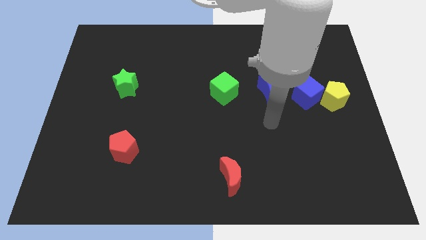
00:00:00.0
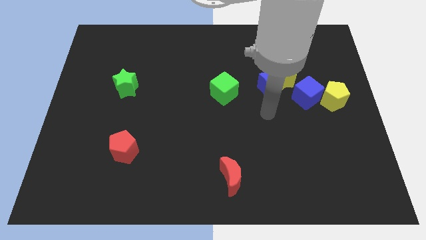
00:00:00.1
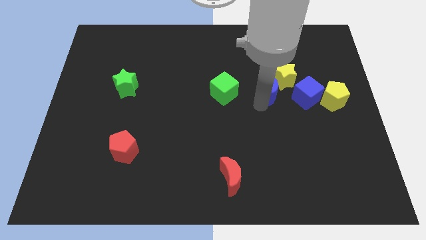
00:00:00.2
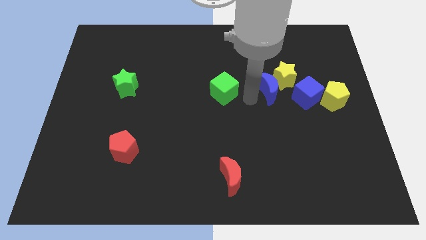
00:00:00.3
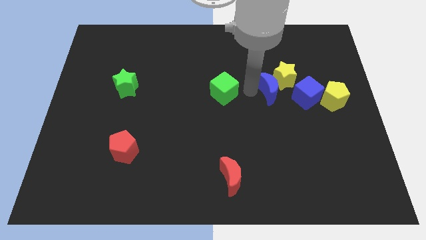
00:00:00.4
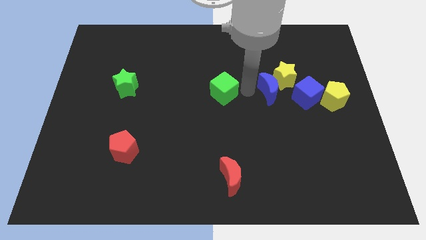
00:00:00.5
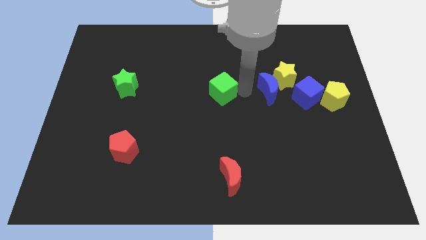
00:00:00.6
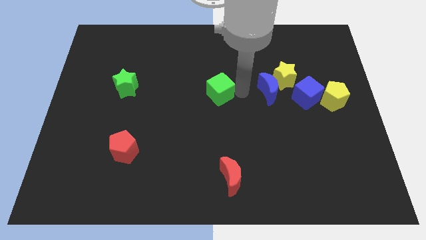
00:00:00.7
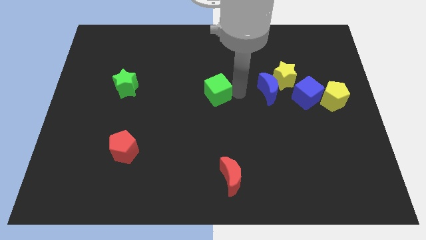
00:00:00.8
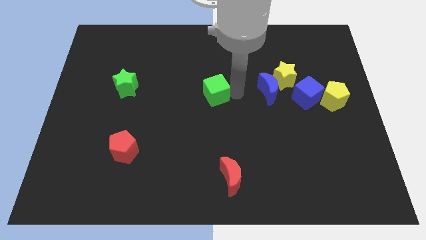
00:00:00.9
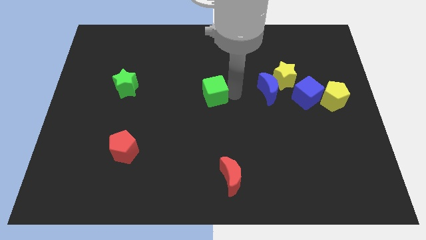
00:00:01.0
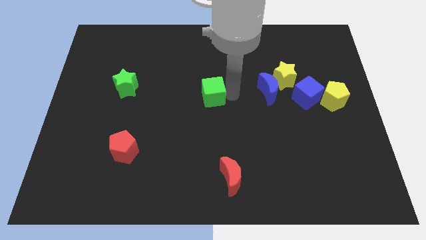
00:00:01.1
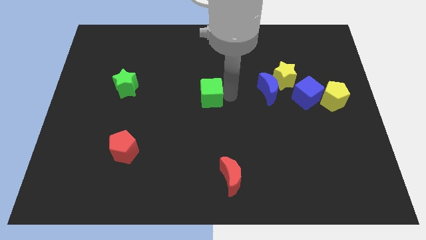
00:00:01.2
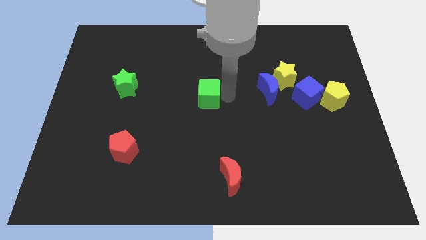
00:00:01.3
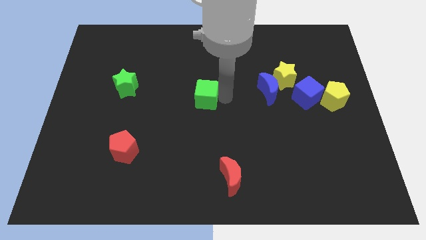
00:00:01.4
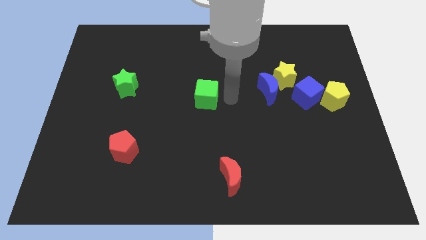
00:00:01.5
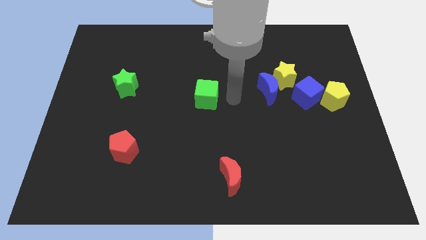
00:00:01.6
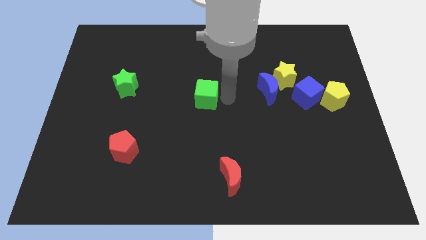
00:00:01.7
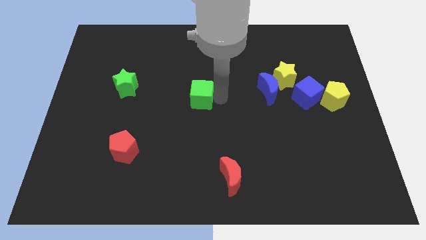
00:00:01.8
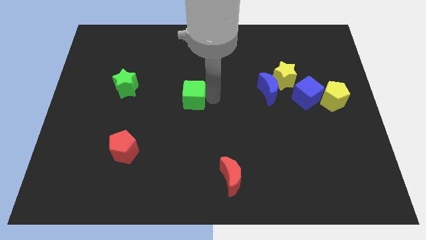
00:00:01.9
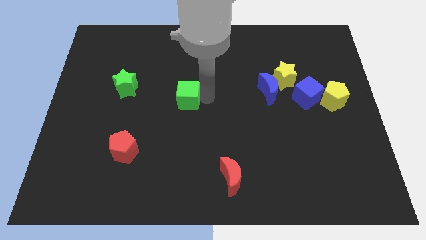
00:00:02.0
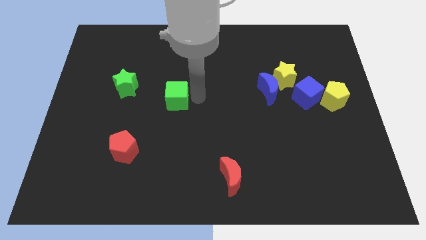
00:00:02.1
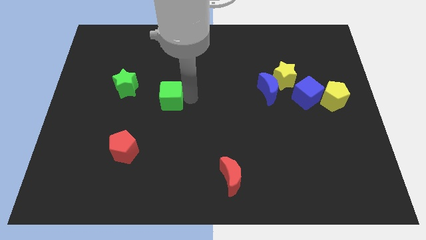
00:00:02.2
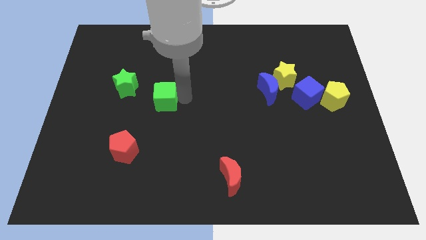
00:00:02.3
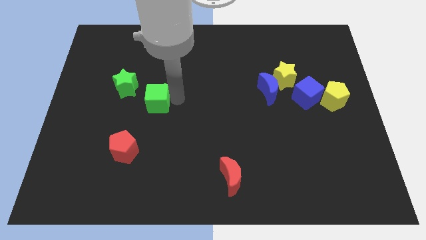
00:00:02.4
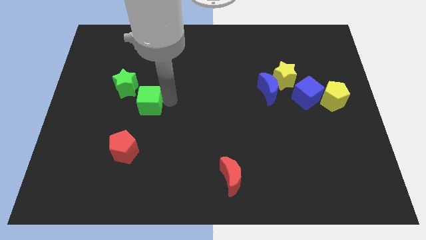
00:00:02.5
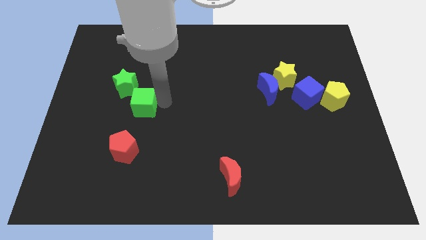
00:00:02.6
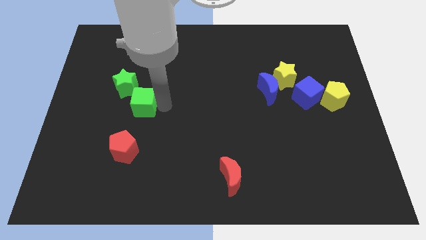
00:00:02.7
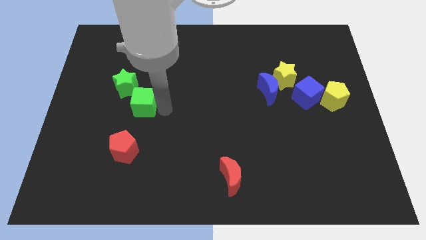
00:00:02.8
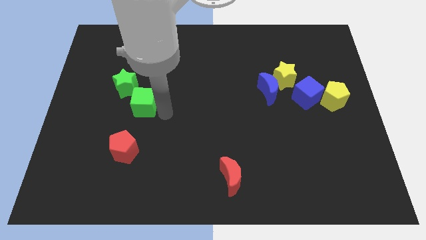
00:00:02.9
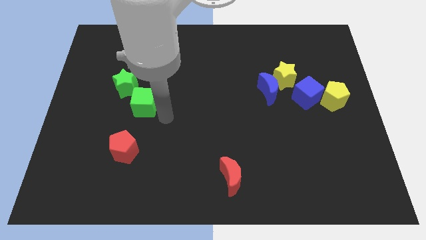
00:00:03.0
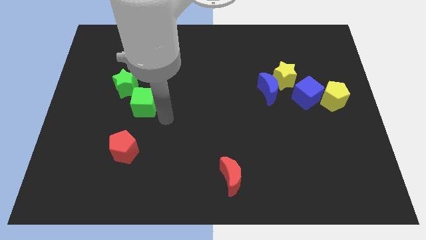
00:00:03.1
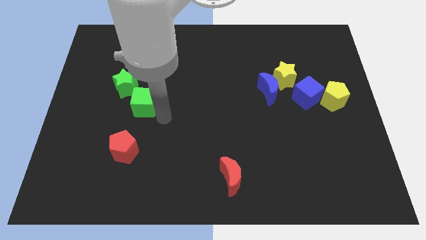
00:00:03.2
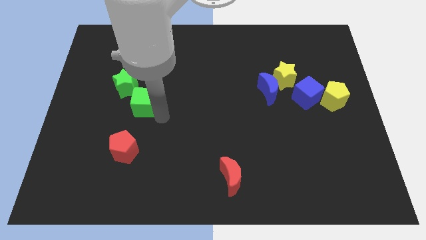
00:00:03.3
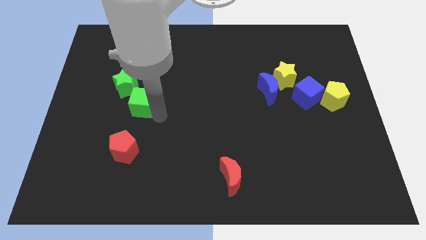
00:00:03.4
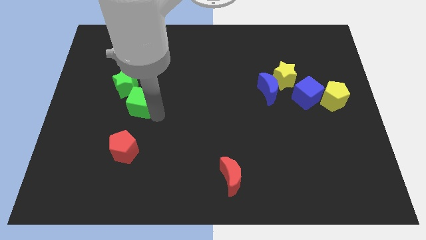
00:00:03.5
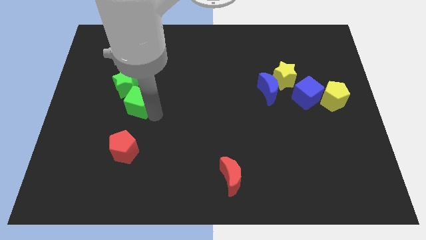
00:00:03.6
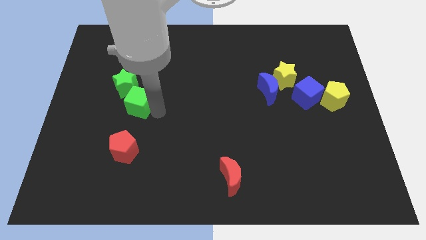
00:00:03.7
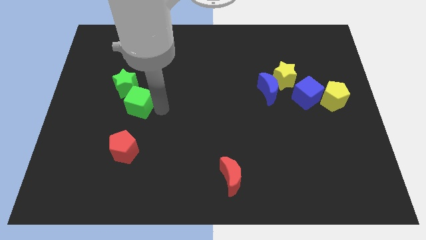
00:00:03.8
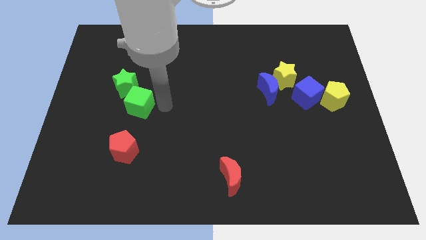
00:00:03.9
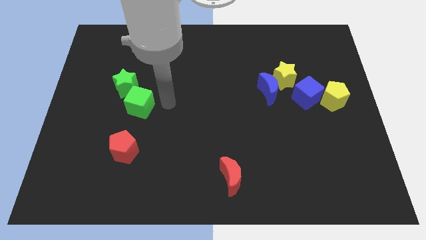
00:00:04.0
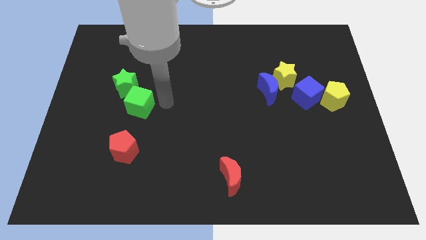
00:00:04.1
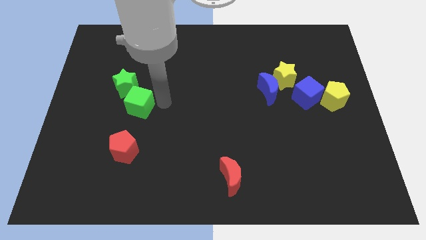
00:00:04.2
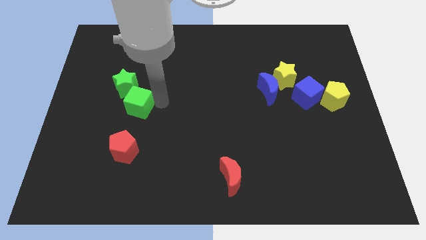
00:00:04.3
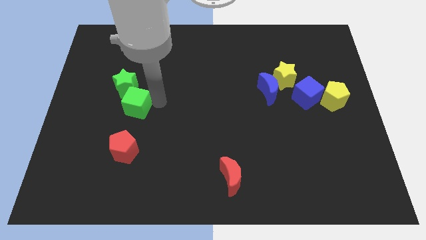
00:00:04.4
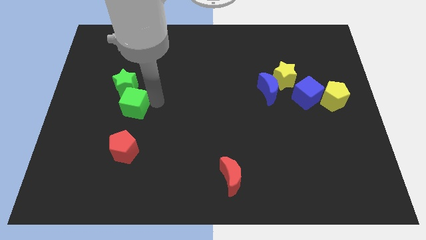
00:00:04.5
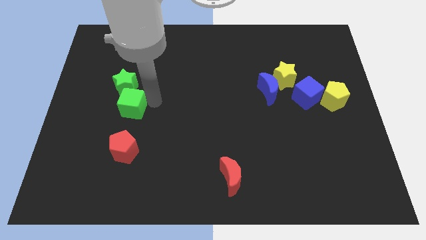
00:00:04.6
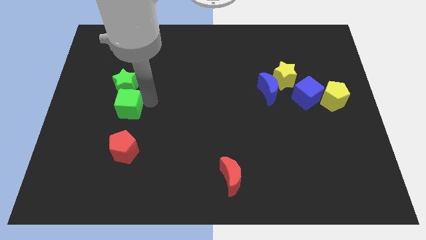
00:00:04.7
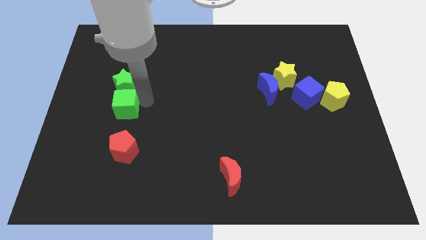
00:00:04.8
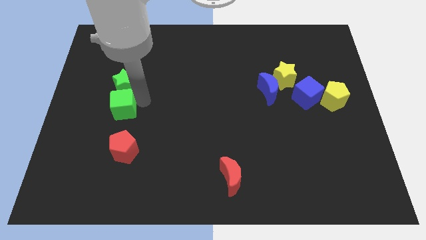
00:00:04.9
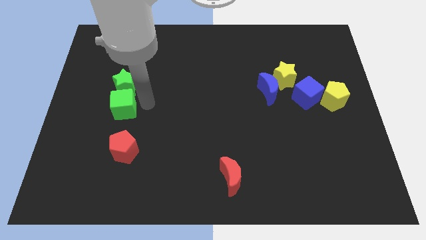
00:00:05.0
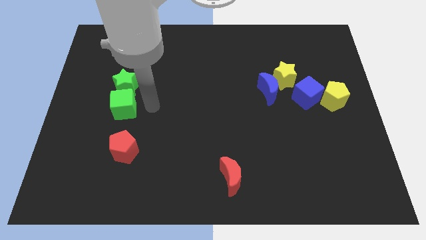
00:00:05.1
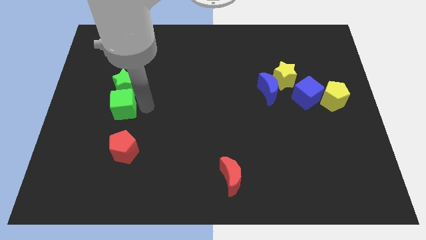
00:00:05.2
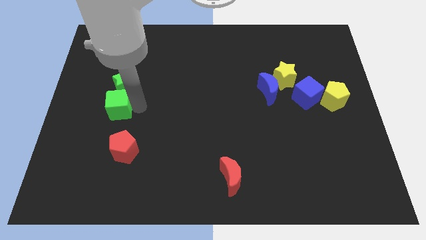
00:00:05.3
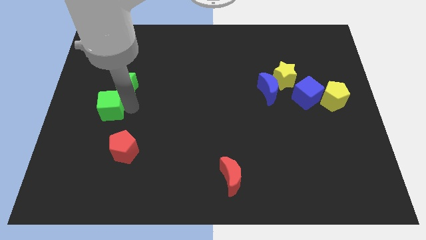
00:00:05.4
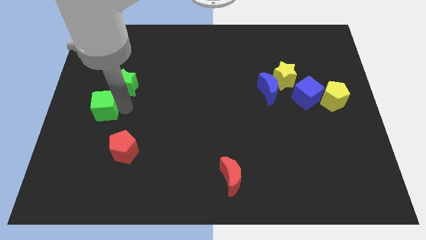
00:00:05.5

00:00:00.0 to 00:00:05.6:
move the green cube to the left side
